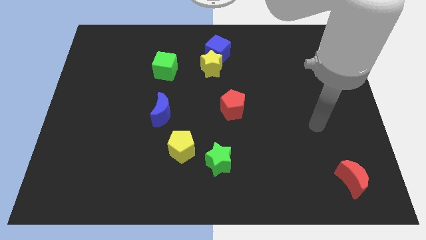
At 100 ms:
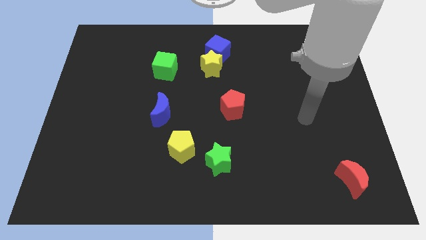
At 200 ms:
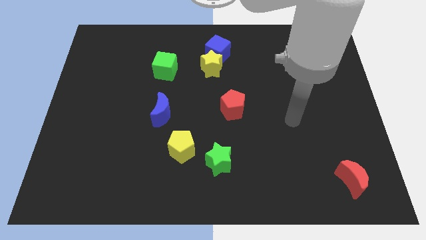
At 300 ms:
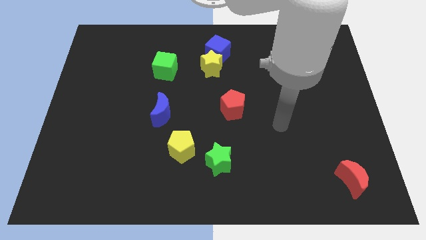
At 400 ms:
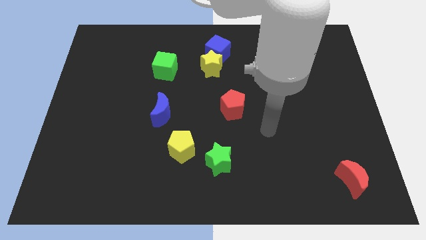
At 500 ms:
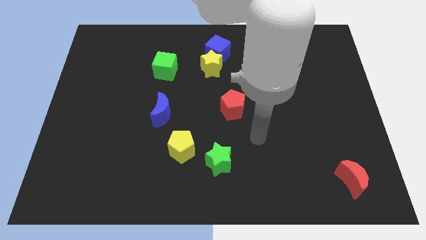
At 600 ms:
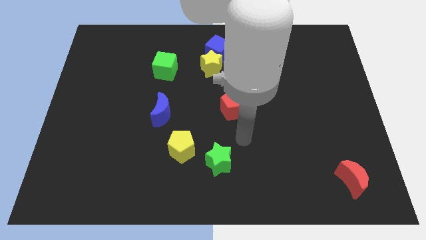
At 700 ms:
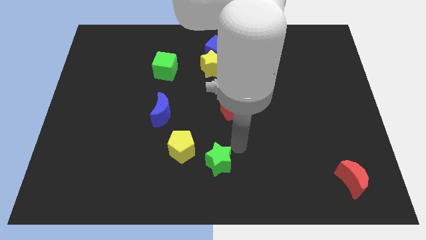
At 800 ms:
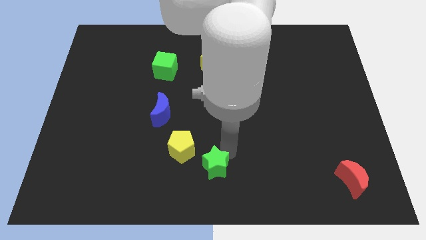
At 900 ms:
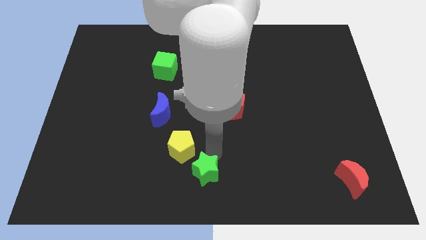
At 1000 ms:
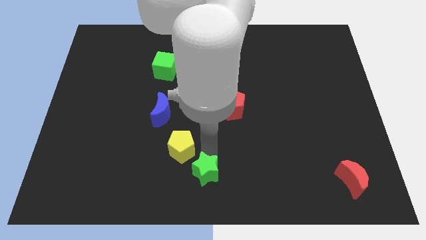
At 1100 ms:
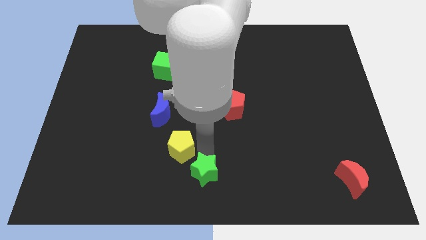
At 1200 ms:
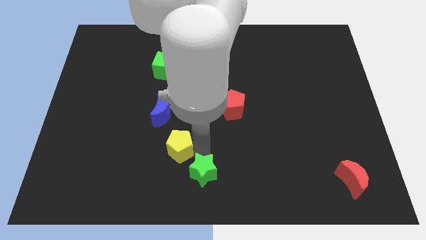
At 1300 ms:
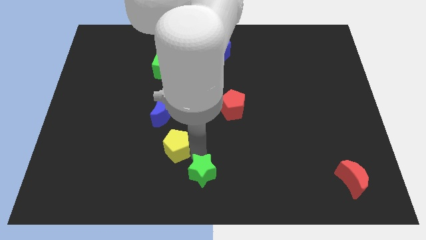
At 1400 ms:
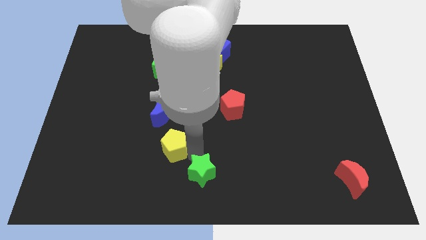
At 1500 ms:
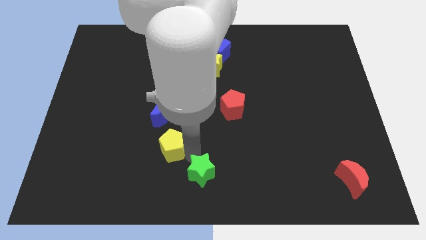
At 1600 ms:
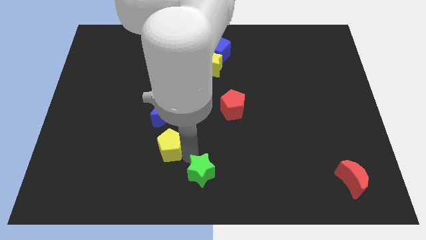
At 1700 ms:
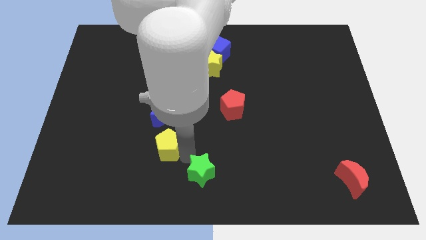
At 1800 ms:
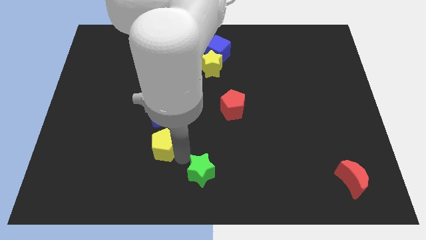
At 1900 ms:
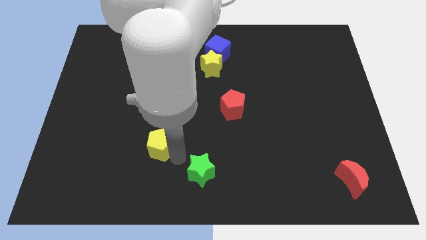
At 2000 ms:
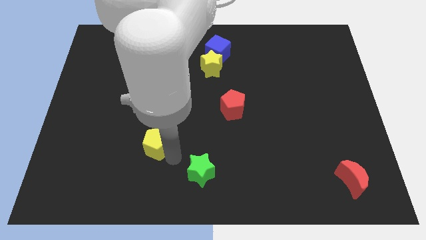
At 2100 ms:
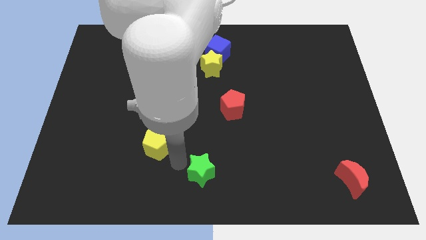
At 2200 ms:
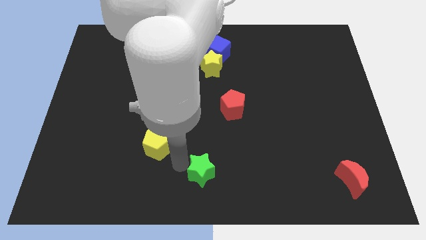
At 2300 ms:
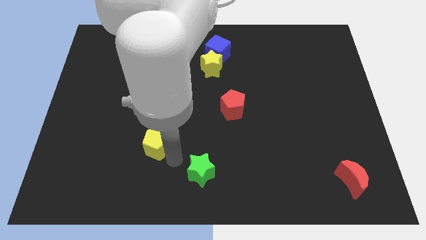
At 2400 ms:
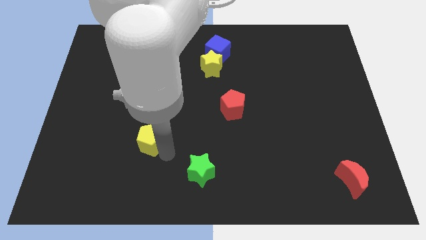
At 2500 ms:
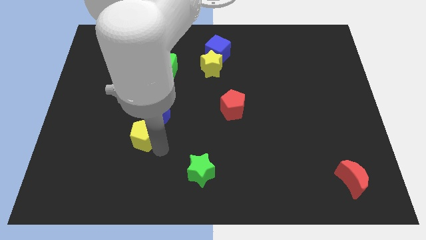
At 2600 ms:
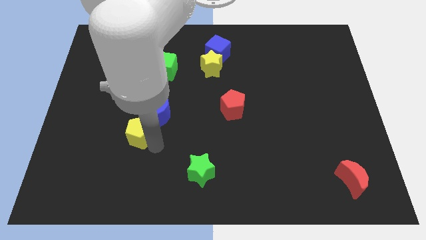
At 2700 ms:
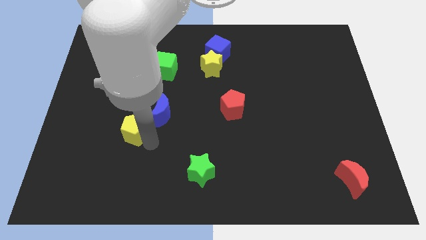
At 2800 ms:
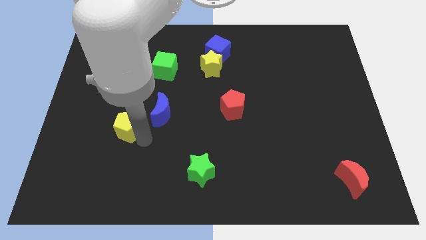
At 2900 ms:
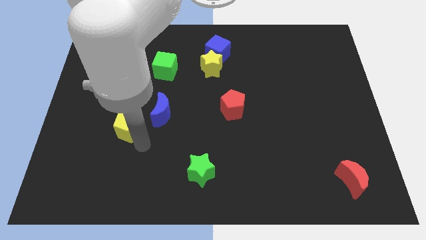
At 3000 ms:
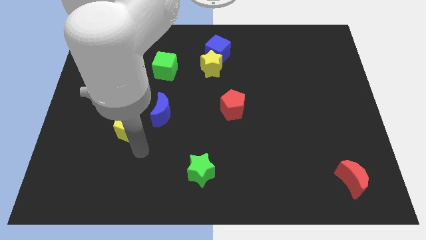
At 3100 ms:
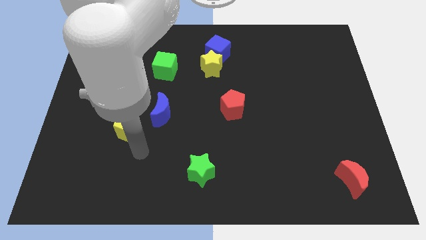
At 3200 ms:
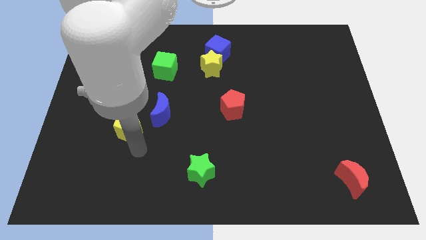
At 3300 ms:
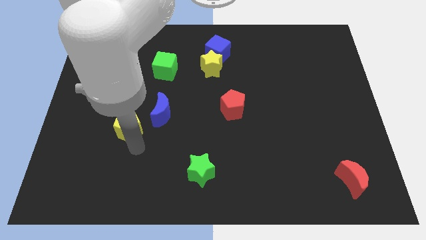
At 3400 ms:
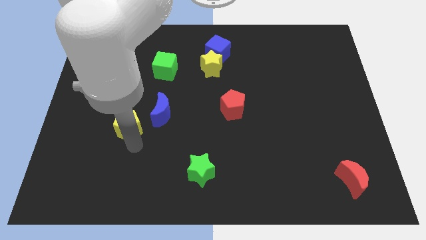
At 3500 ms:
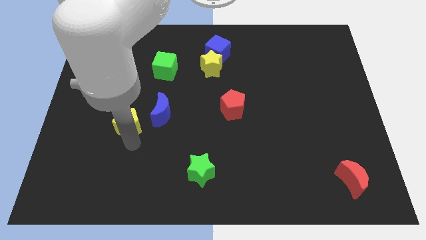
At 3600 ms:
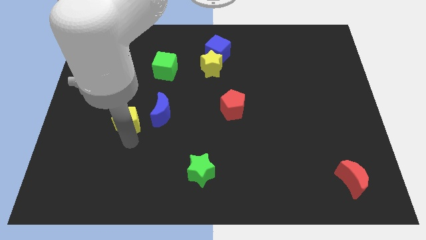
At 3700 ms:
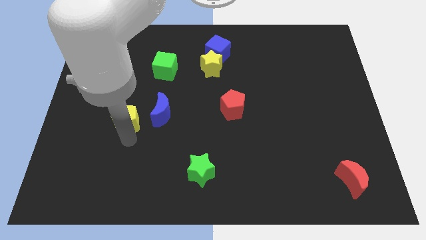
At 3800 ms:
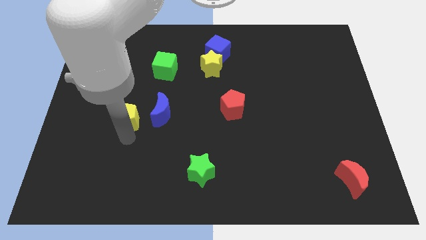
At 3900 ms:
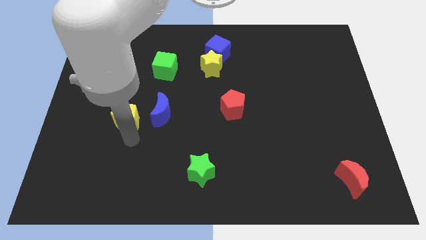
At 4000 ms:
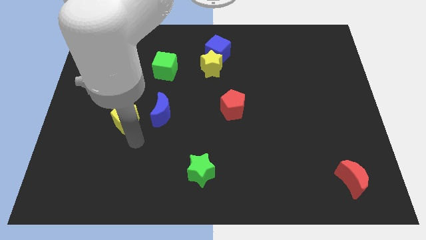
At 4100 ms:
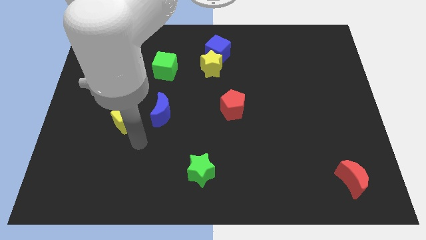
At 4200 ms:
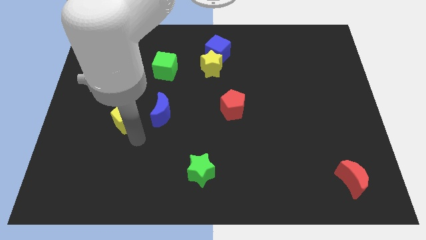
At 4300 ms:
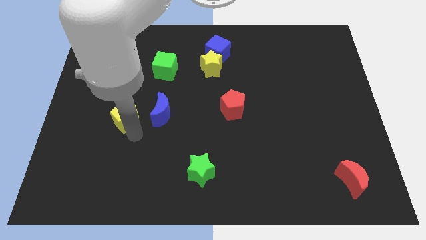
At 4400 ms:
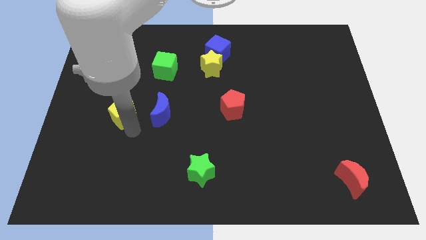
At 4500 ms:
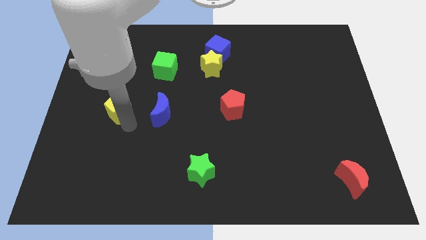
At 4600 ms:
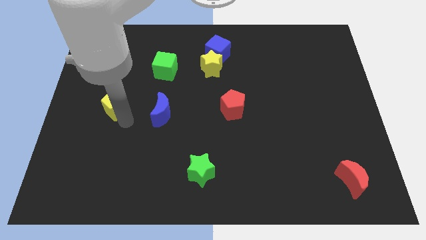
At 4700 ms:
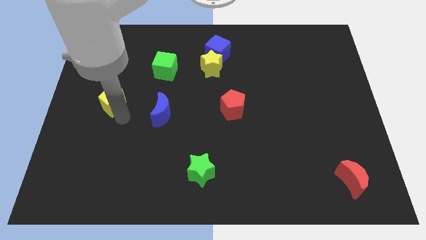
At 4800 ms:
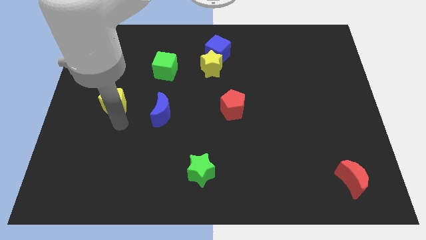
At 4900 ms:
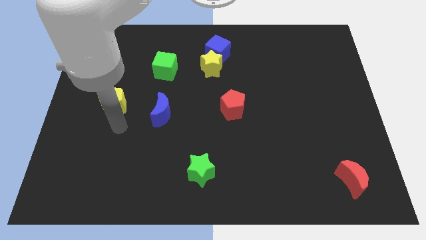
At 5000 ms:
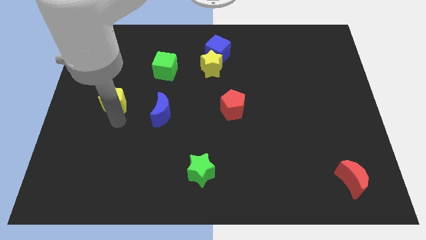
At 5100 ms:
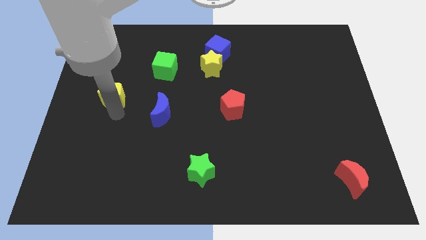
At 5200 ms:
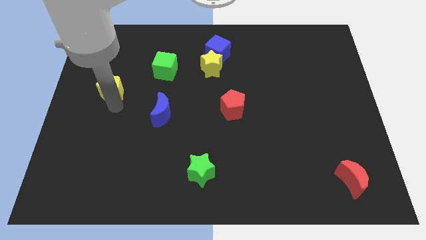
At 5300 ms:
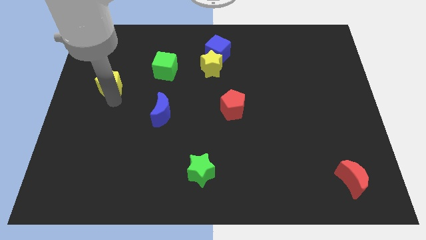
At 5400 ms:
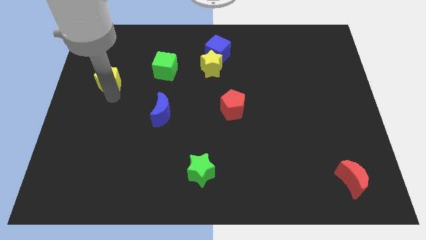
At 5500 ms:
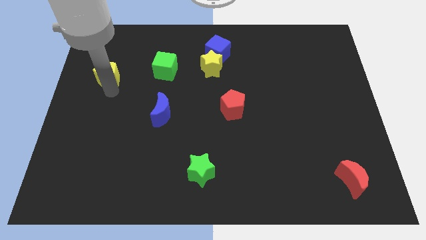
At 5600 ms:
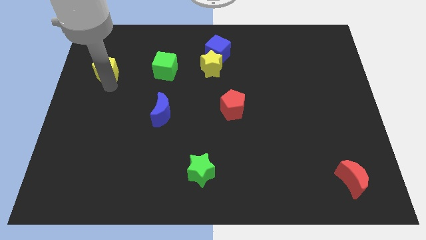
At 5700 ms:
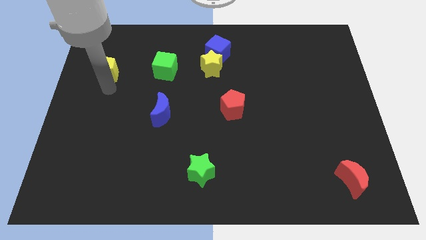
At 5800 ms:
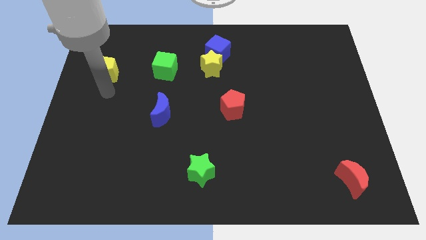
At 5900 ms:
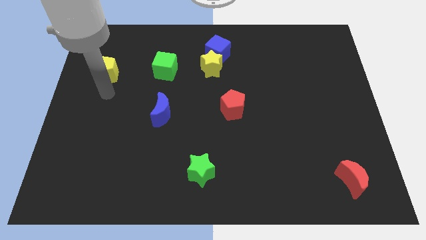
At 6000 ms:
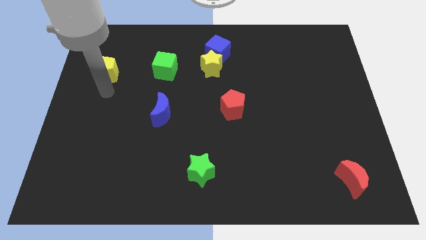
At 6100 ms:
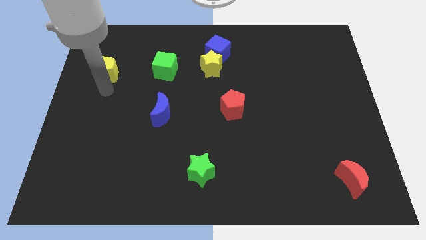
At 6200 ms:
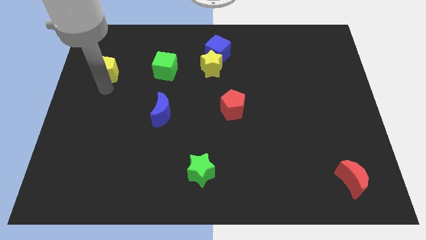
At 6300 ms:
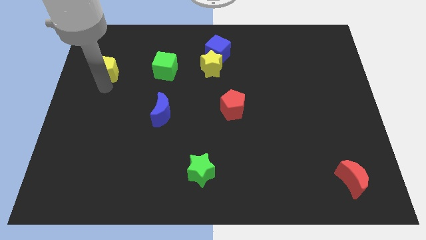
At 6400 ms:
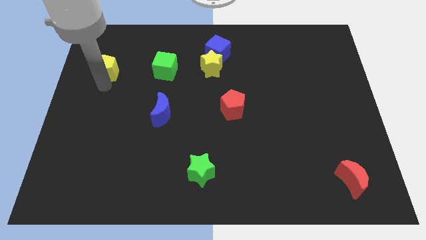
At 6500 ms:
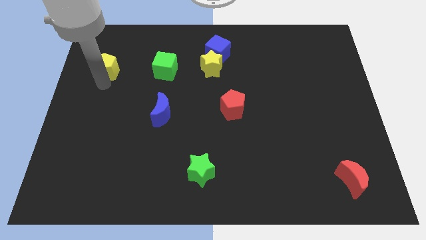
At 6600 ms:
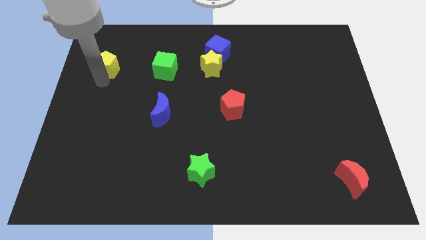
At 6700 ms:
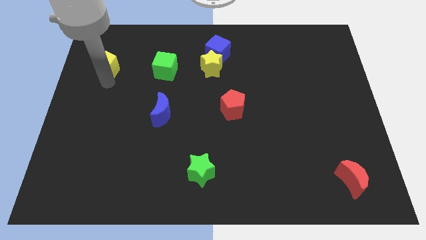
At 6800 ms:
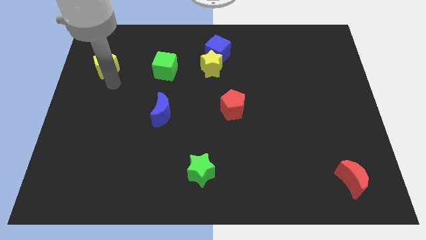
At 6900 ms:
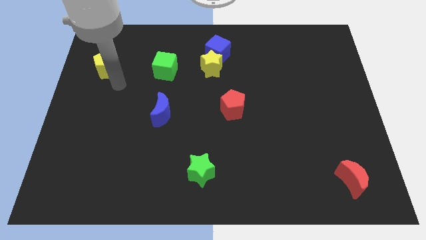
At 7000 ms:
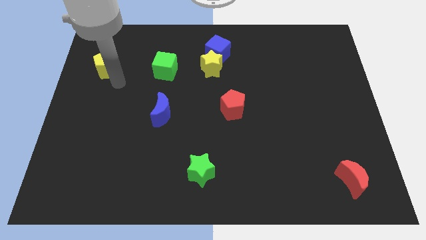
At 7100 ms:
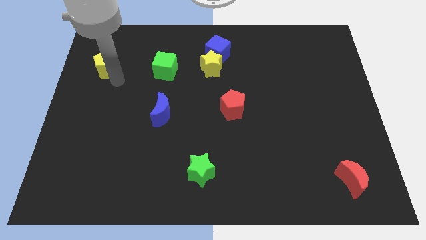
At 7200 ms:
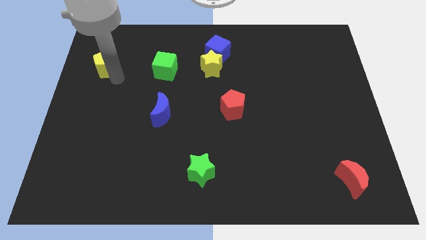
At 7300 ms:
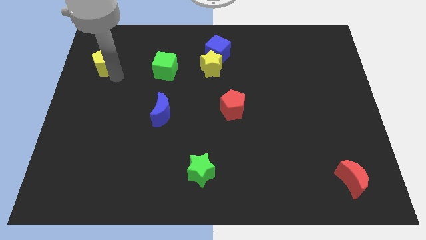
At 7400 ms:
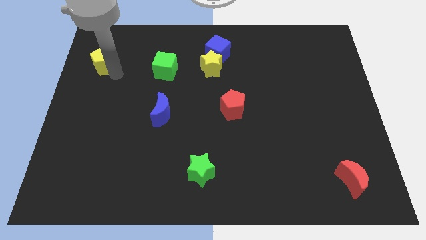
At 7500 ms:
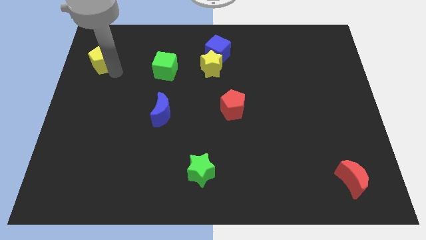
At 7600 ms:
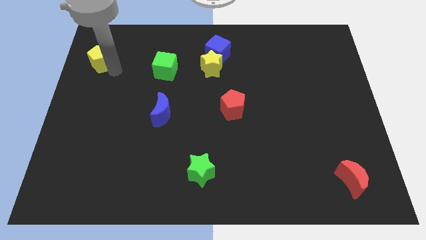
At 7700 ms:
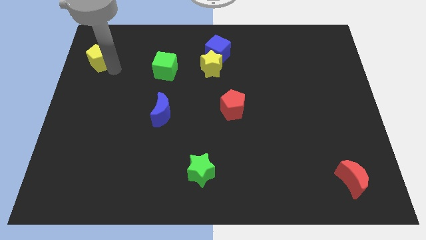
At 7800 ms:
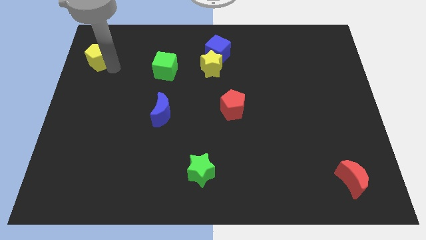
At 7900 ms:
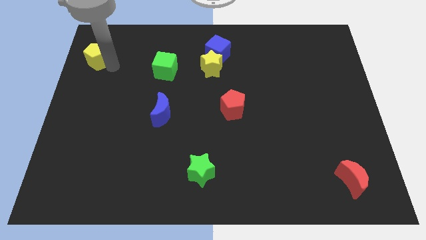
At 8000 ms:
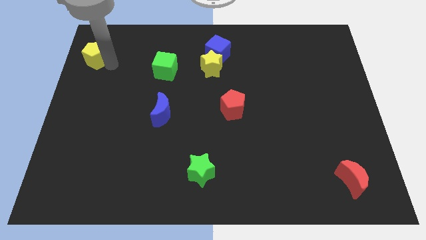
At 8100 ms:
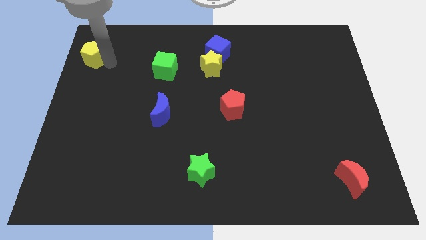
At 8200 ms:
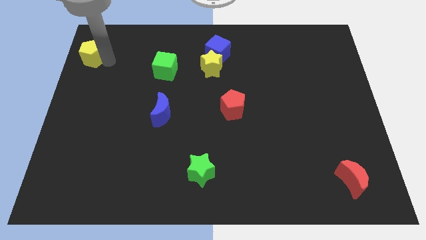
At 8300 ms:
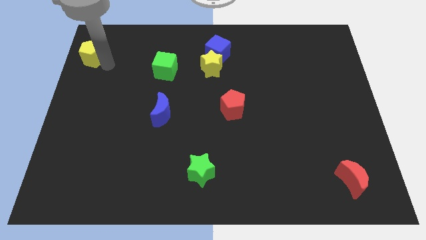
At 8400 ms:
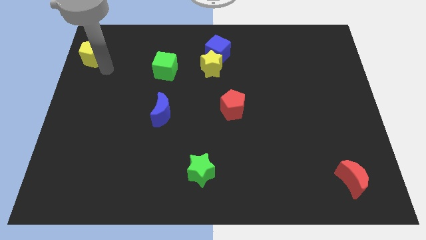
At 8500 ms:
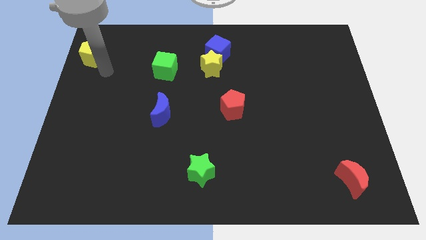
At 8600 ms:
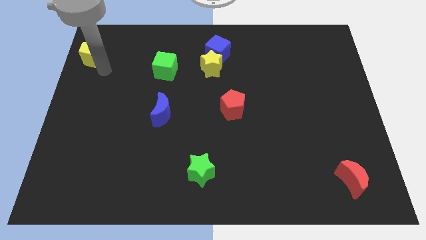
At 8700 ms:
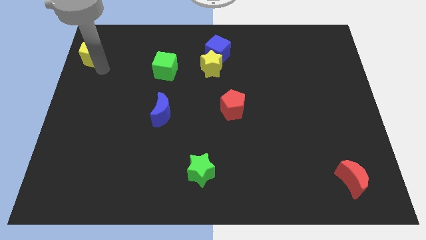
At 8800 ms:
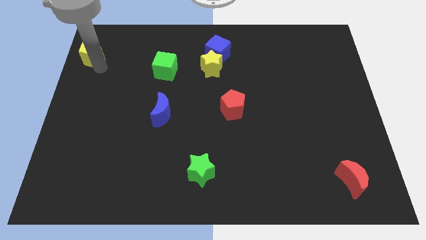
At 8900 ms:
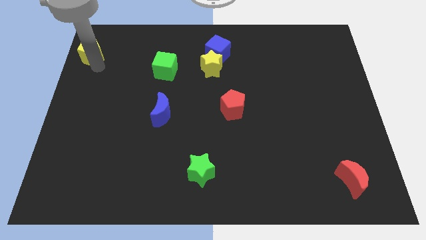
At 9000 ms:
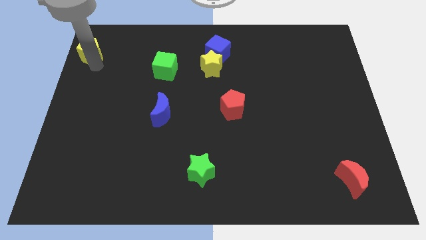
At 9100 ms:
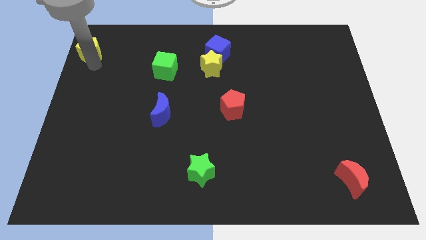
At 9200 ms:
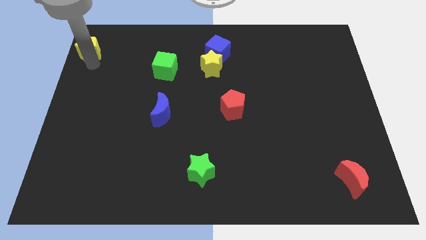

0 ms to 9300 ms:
slide the yellow pentagon to the upper left corner
